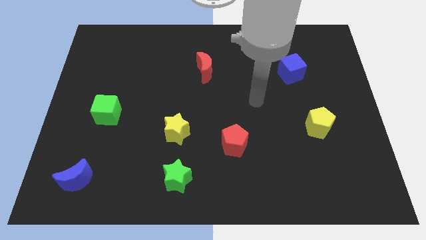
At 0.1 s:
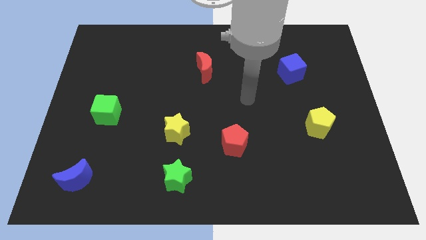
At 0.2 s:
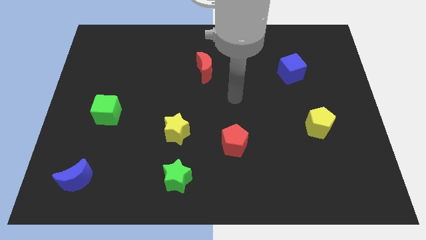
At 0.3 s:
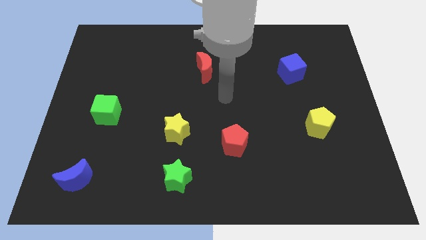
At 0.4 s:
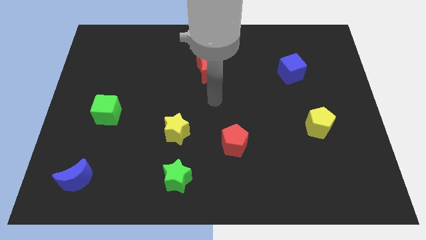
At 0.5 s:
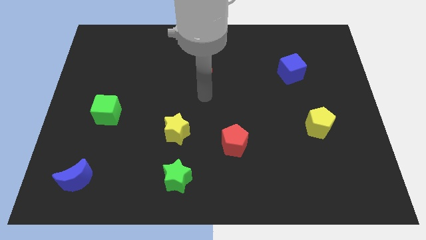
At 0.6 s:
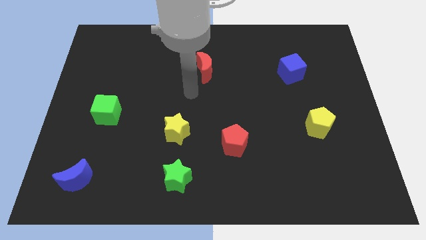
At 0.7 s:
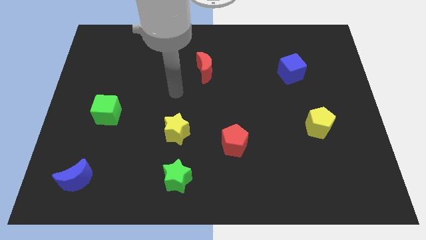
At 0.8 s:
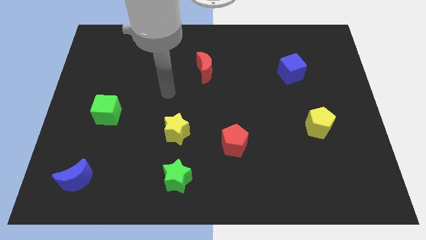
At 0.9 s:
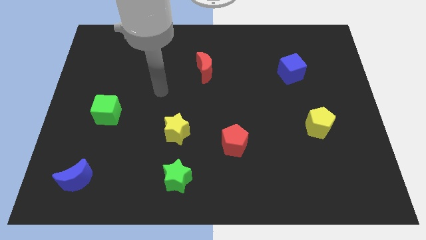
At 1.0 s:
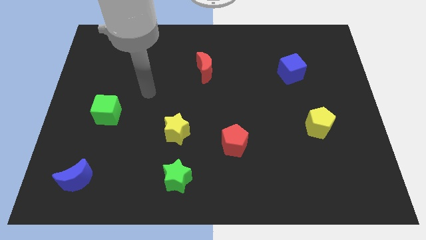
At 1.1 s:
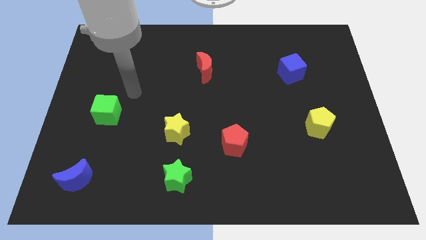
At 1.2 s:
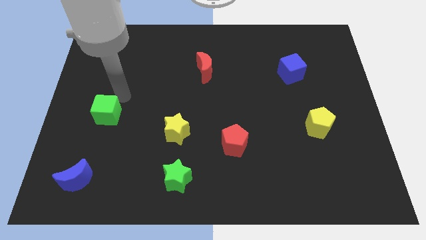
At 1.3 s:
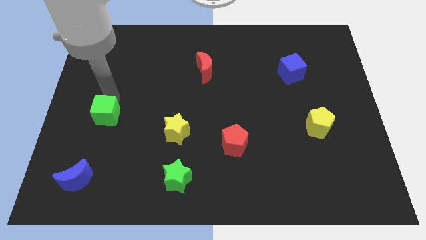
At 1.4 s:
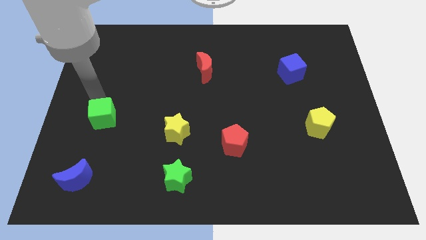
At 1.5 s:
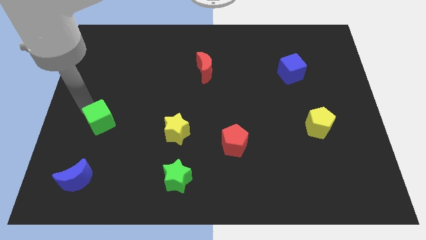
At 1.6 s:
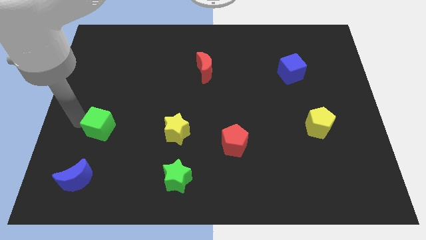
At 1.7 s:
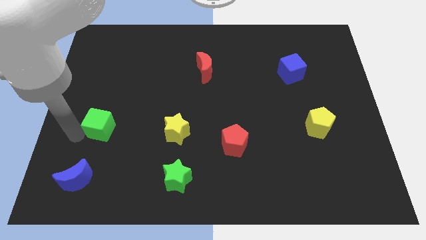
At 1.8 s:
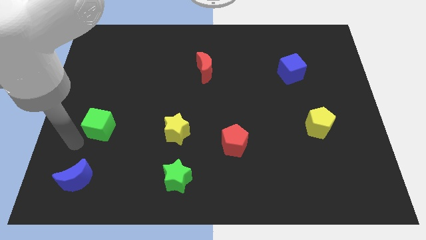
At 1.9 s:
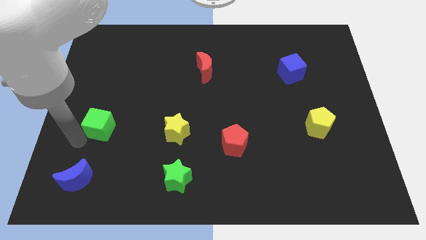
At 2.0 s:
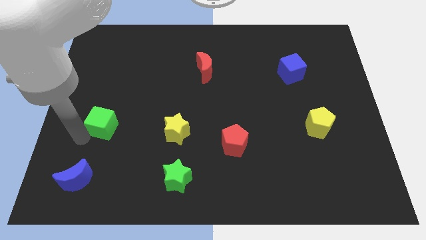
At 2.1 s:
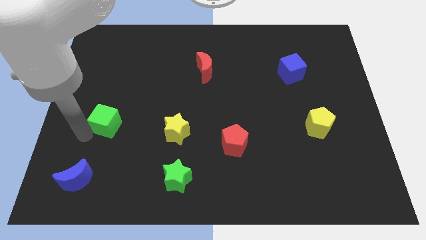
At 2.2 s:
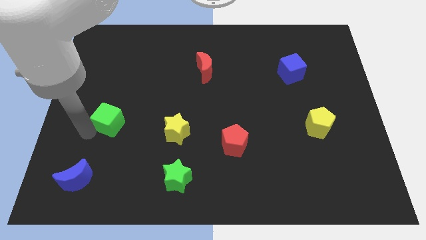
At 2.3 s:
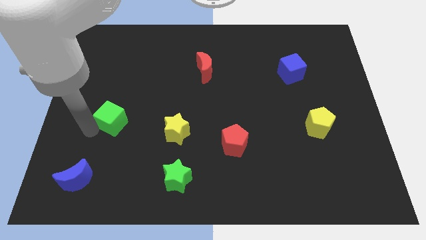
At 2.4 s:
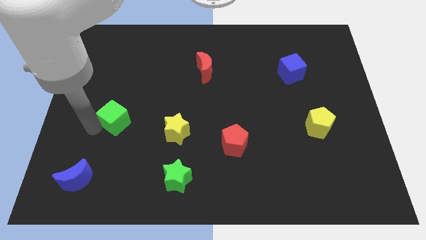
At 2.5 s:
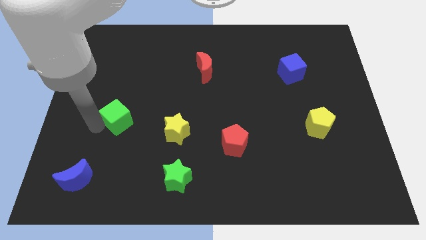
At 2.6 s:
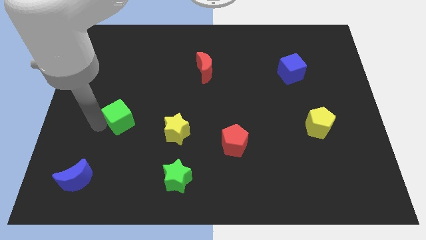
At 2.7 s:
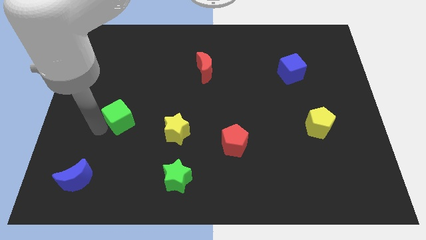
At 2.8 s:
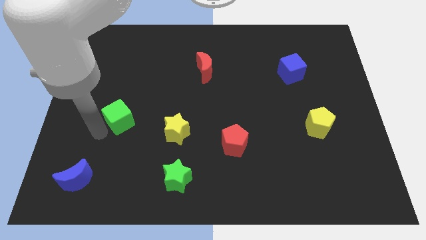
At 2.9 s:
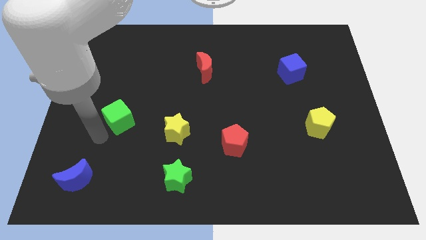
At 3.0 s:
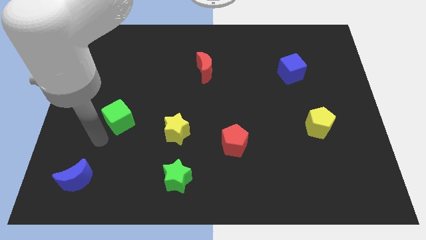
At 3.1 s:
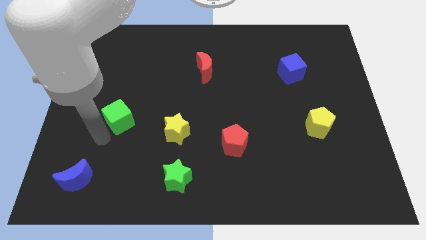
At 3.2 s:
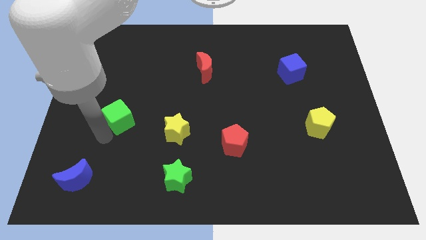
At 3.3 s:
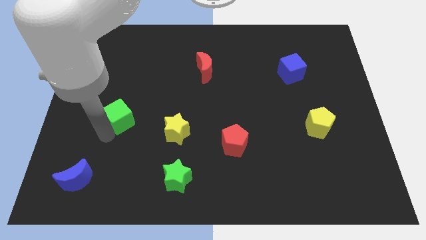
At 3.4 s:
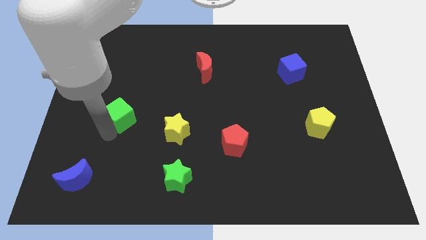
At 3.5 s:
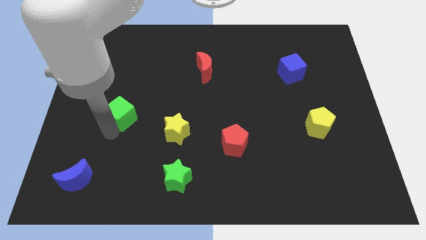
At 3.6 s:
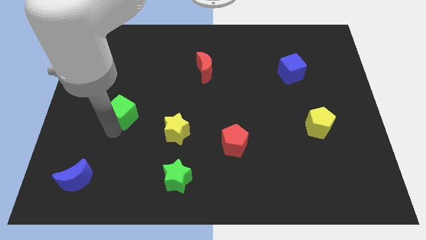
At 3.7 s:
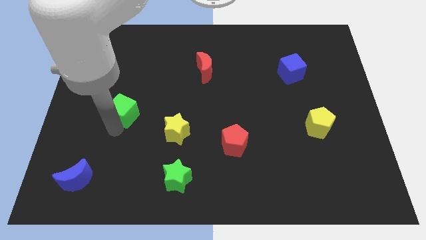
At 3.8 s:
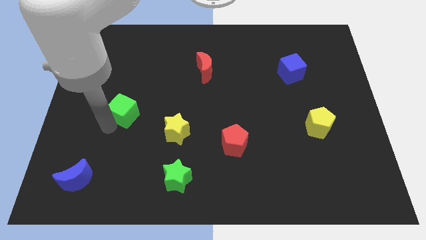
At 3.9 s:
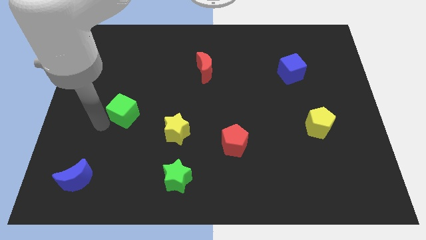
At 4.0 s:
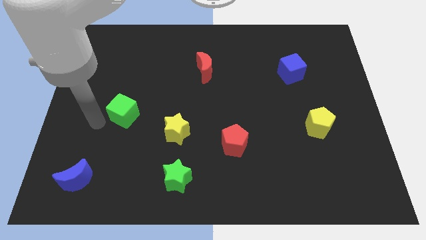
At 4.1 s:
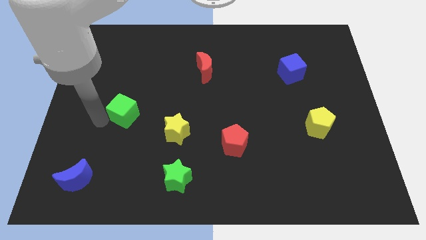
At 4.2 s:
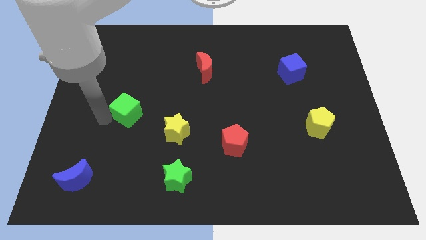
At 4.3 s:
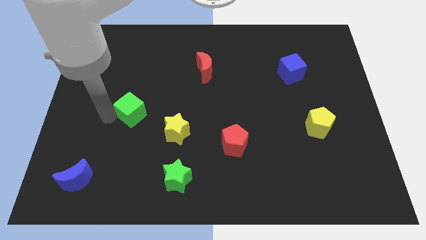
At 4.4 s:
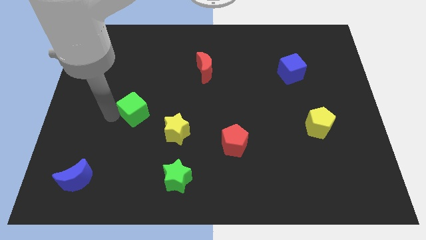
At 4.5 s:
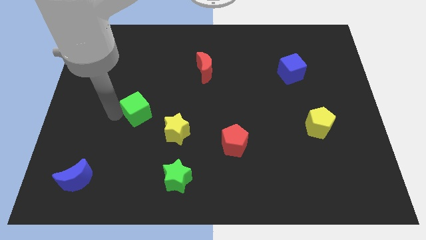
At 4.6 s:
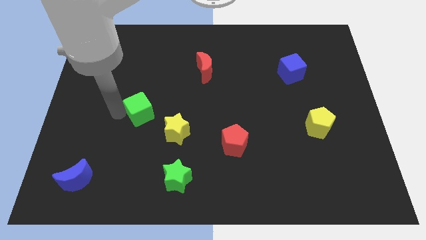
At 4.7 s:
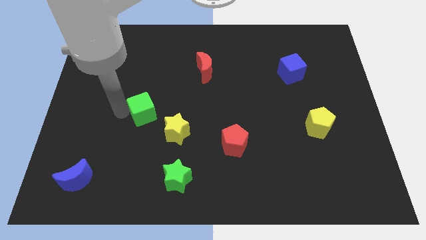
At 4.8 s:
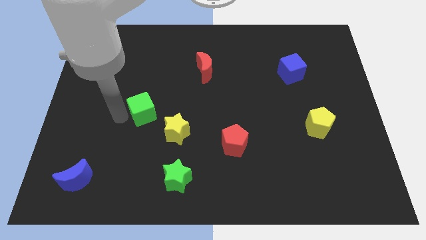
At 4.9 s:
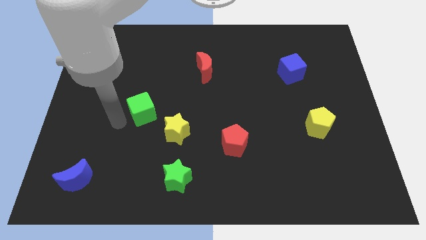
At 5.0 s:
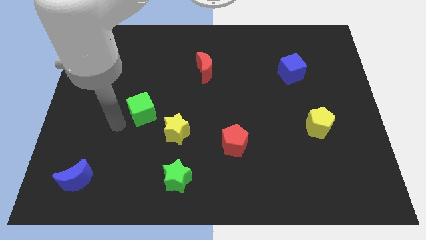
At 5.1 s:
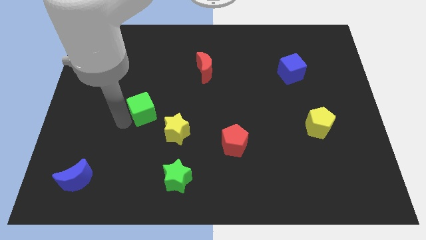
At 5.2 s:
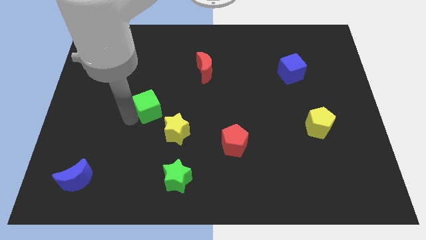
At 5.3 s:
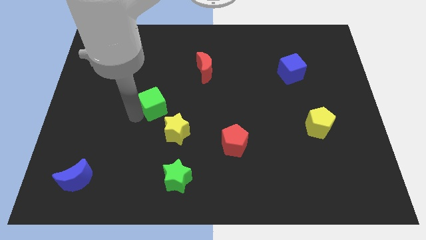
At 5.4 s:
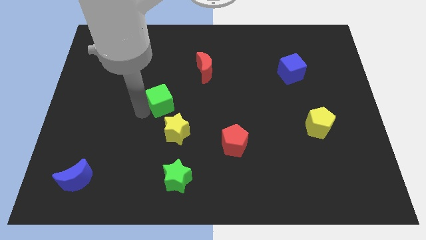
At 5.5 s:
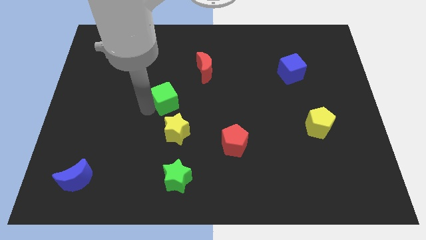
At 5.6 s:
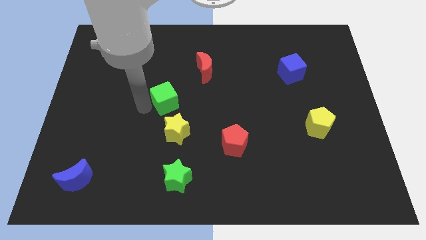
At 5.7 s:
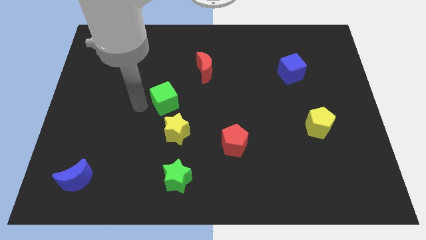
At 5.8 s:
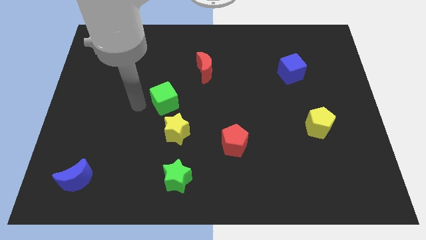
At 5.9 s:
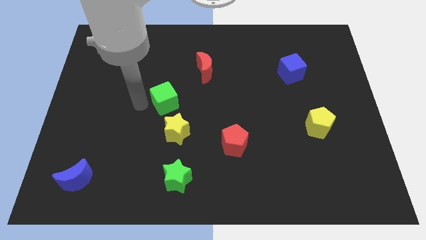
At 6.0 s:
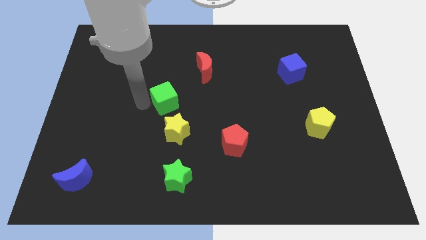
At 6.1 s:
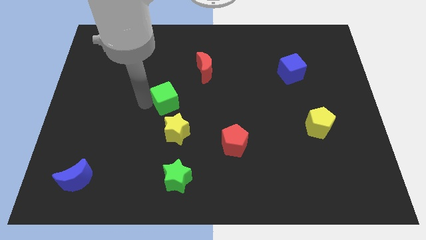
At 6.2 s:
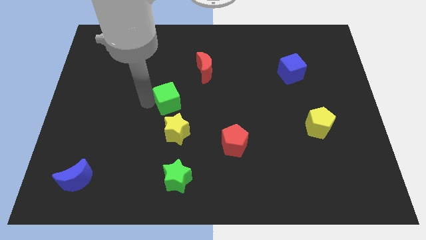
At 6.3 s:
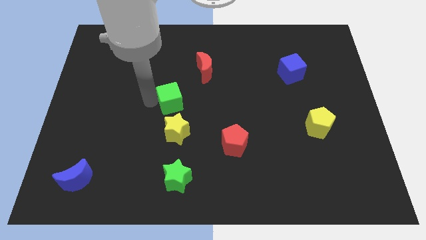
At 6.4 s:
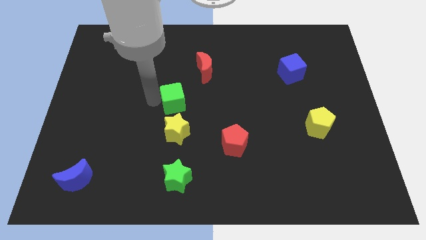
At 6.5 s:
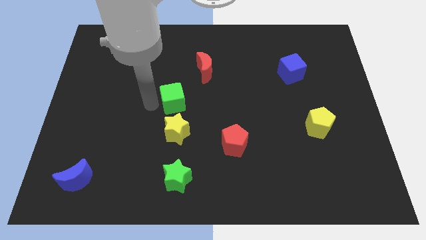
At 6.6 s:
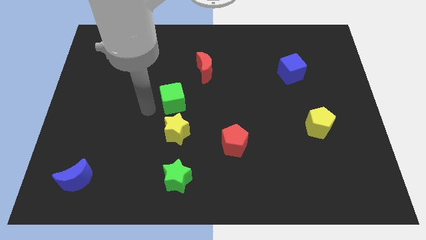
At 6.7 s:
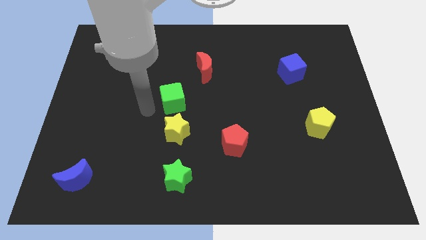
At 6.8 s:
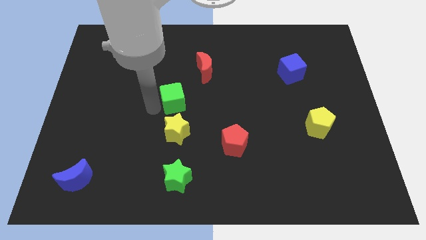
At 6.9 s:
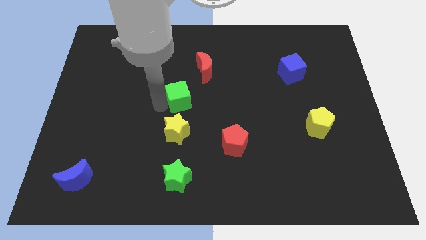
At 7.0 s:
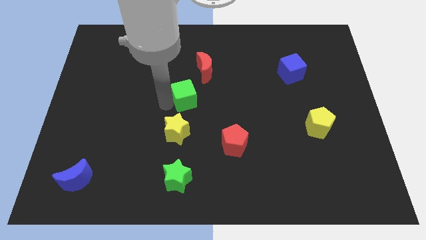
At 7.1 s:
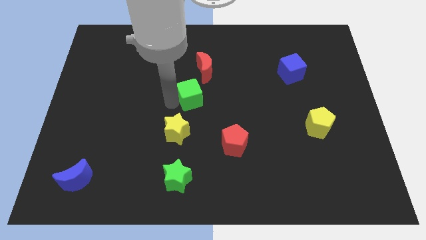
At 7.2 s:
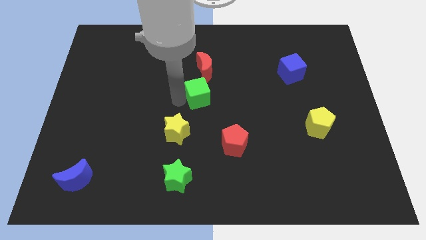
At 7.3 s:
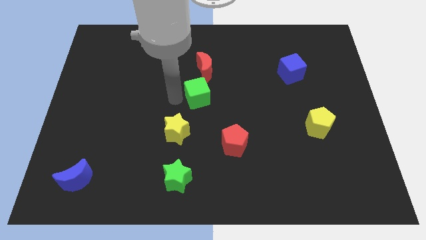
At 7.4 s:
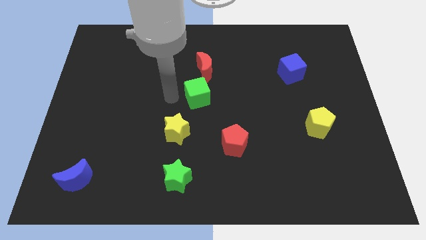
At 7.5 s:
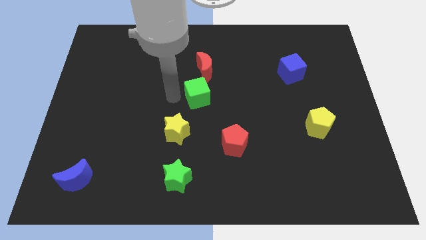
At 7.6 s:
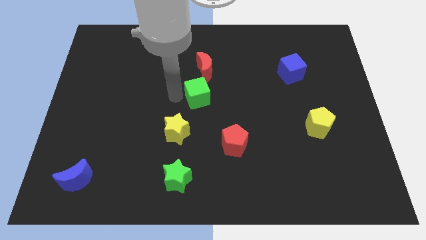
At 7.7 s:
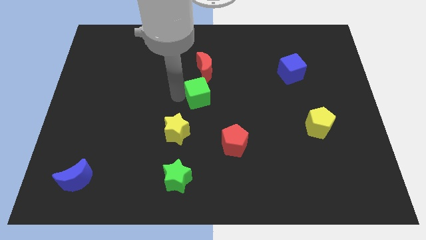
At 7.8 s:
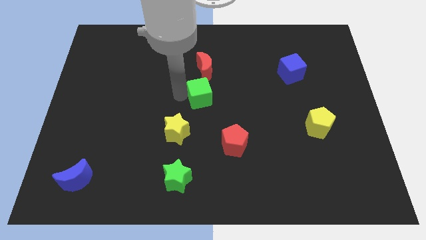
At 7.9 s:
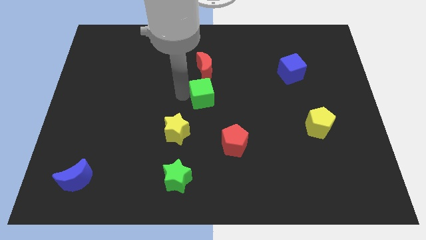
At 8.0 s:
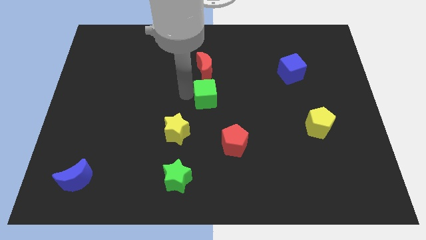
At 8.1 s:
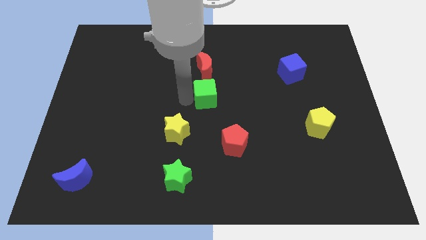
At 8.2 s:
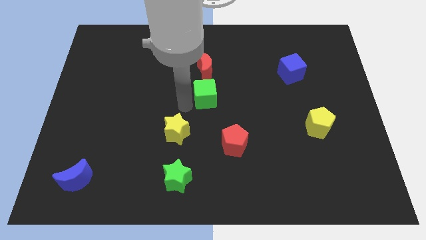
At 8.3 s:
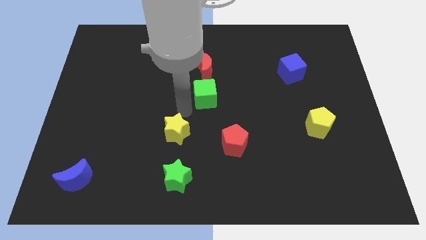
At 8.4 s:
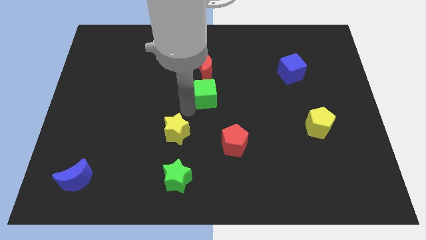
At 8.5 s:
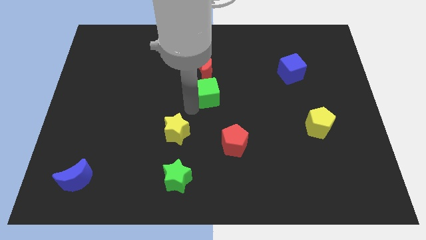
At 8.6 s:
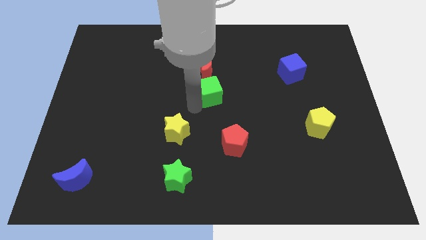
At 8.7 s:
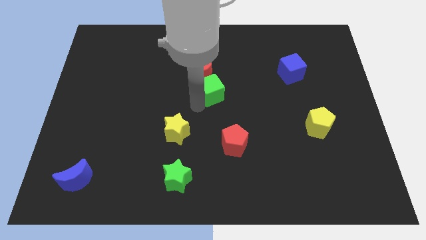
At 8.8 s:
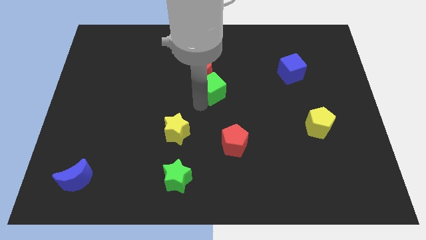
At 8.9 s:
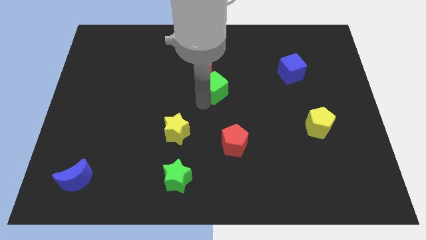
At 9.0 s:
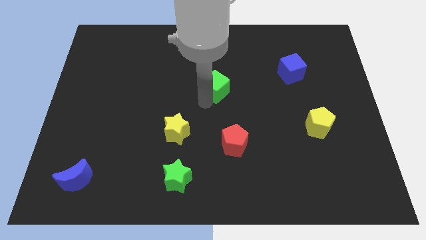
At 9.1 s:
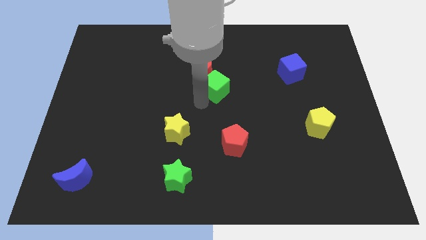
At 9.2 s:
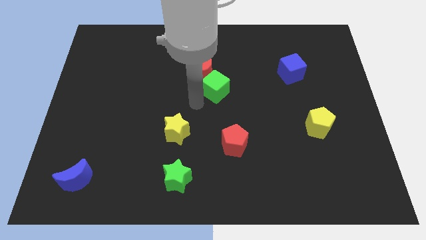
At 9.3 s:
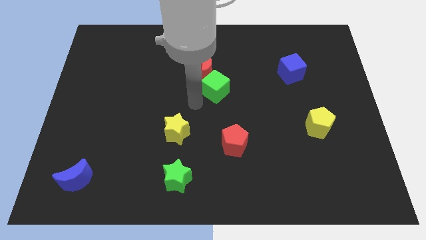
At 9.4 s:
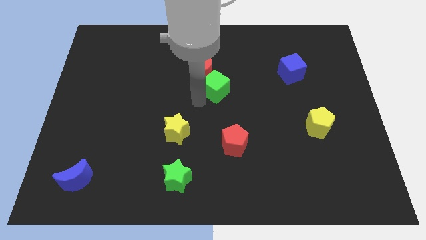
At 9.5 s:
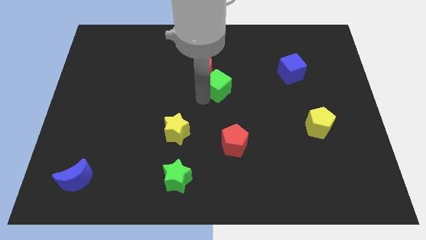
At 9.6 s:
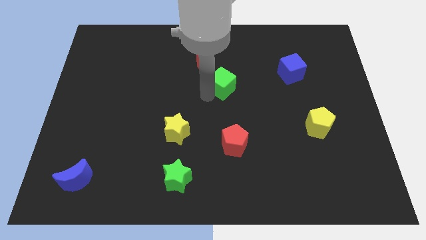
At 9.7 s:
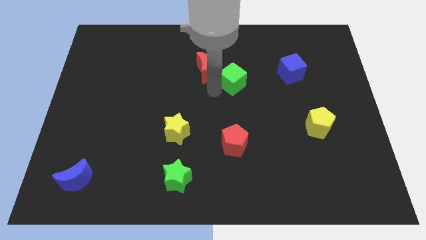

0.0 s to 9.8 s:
move the green cube to the left side of the blue cube
